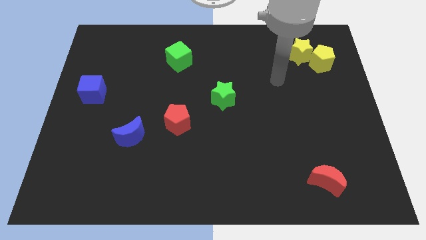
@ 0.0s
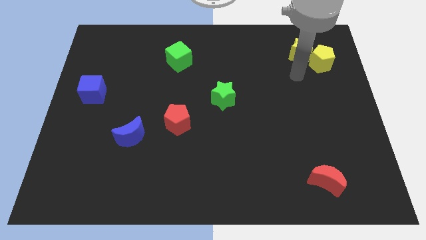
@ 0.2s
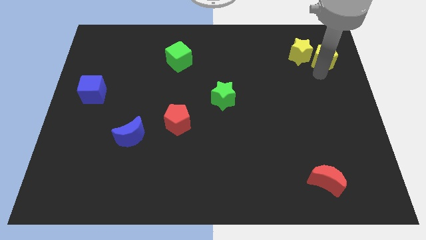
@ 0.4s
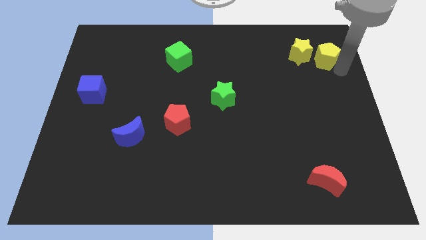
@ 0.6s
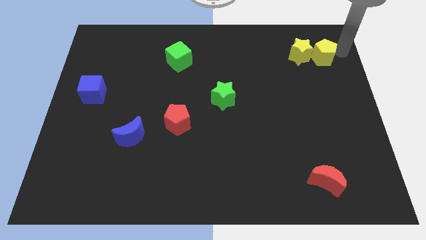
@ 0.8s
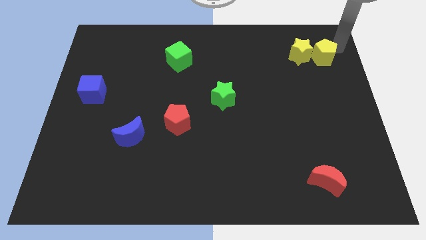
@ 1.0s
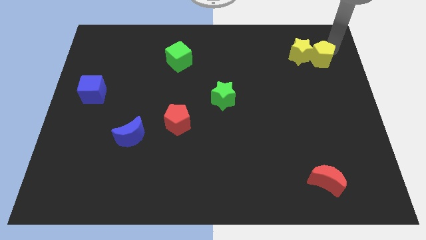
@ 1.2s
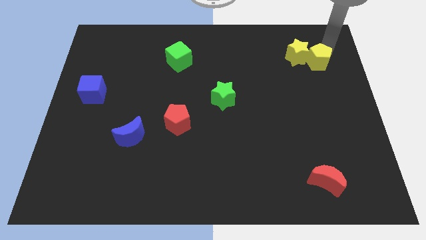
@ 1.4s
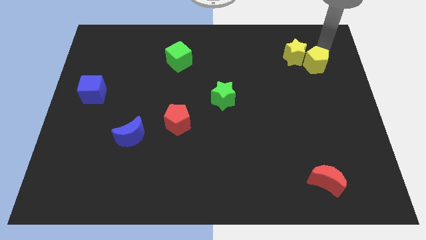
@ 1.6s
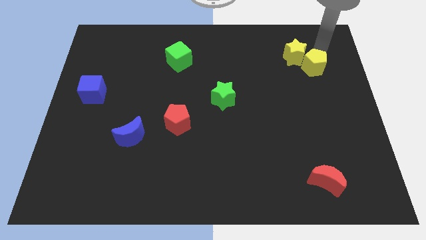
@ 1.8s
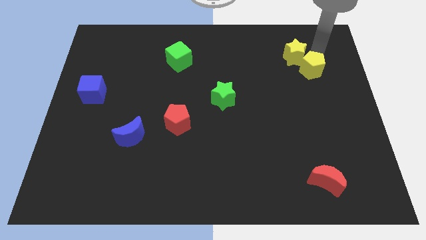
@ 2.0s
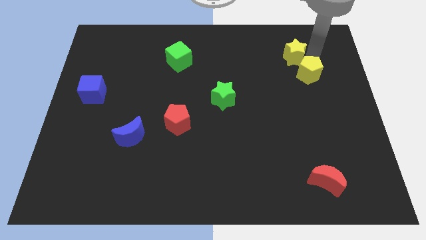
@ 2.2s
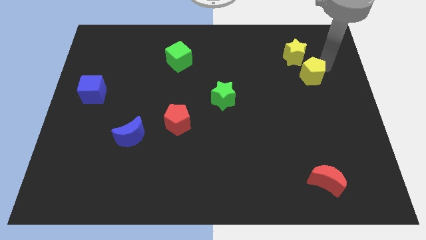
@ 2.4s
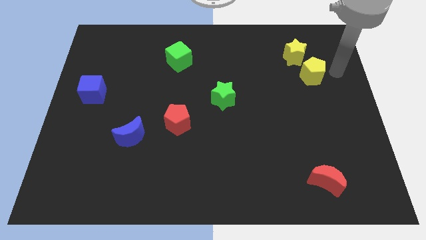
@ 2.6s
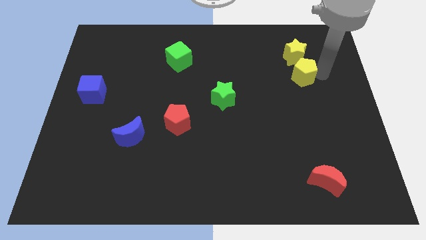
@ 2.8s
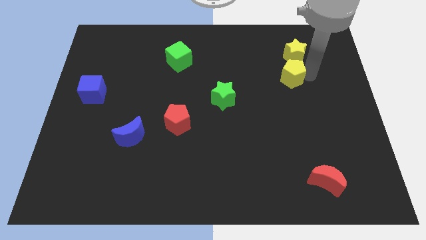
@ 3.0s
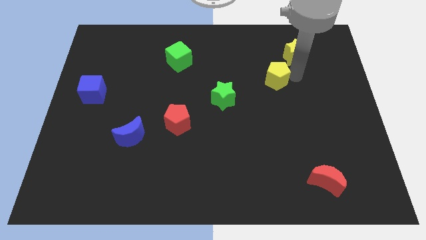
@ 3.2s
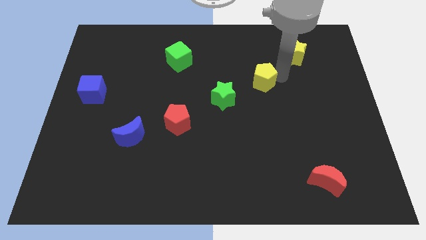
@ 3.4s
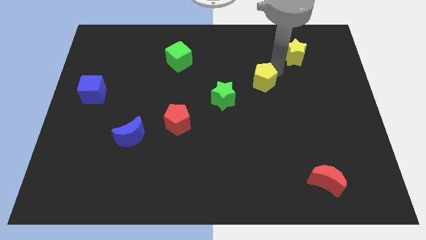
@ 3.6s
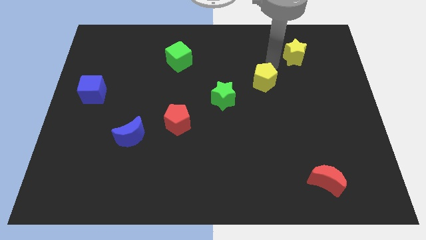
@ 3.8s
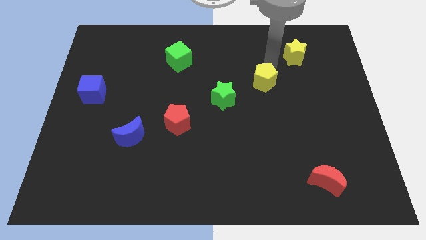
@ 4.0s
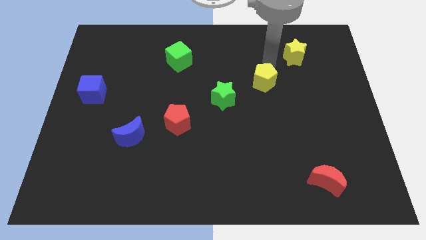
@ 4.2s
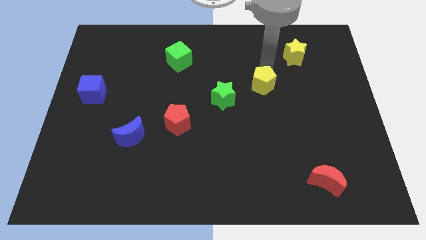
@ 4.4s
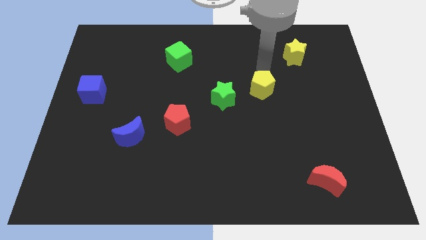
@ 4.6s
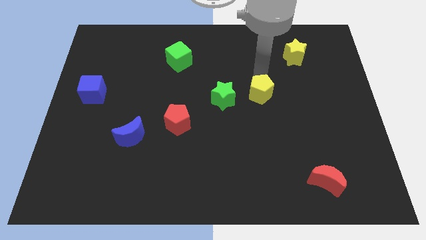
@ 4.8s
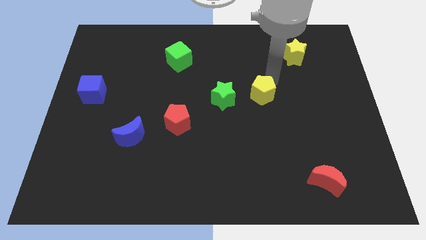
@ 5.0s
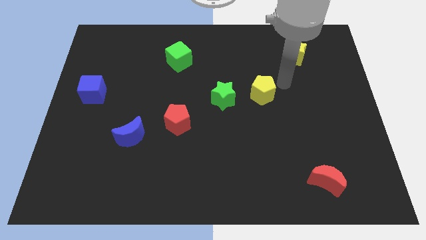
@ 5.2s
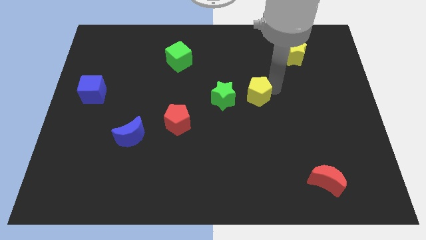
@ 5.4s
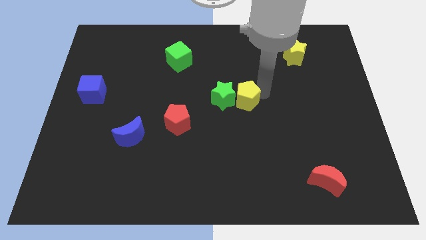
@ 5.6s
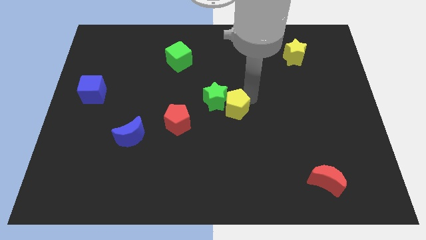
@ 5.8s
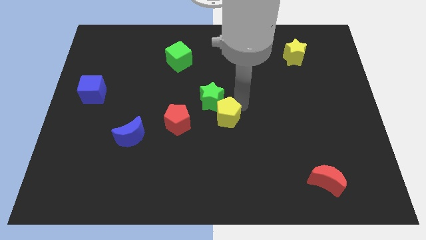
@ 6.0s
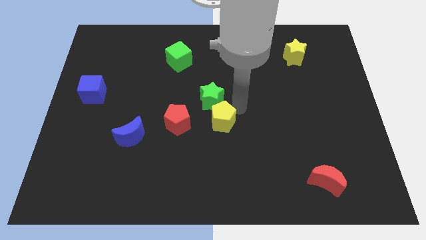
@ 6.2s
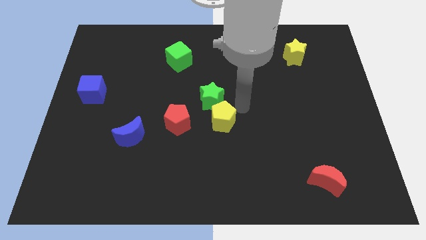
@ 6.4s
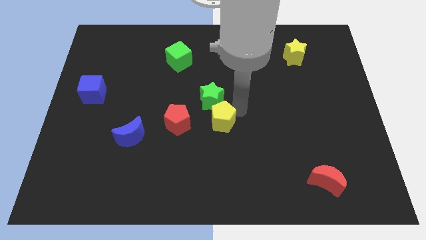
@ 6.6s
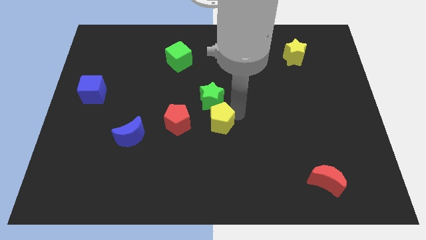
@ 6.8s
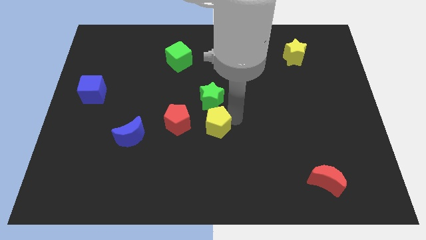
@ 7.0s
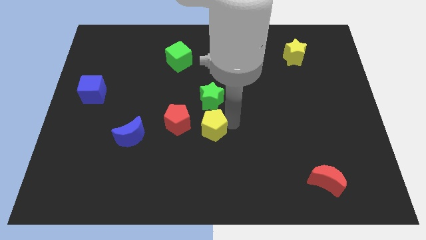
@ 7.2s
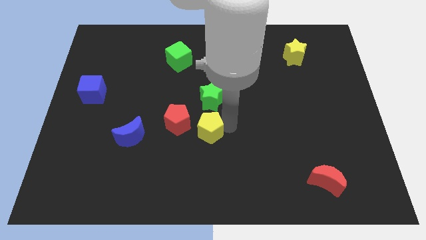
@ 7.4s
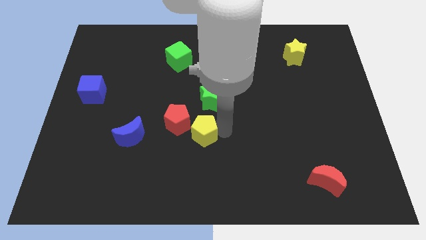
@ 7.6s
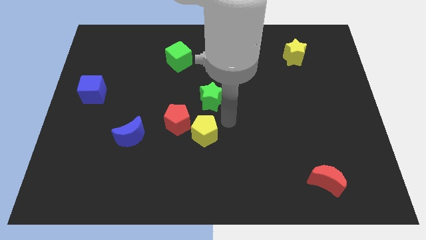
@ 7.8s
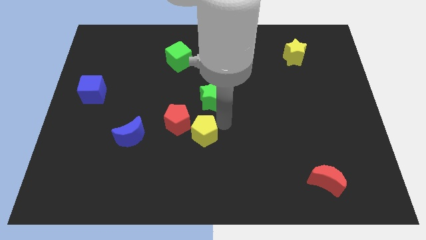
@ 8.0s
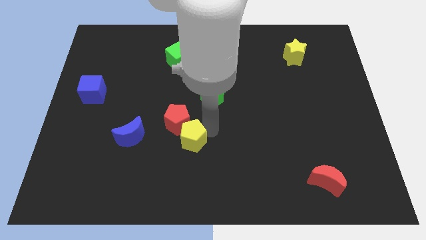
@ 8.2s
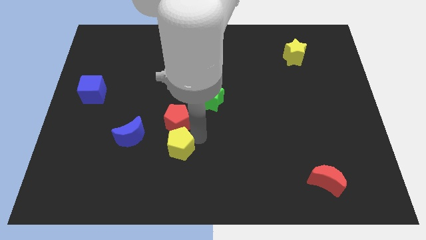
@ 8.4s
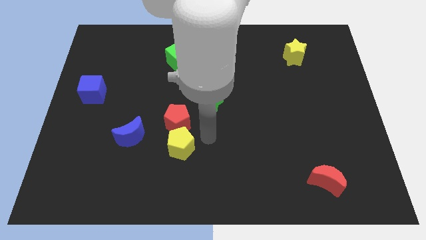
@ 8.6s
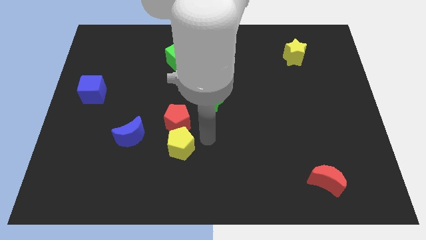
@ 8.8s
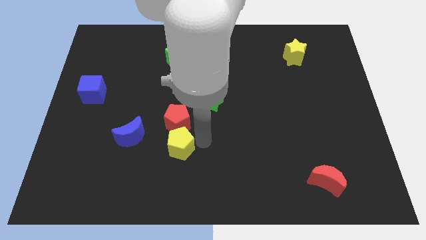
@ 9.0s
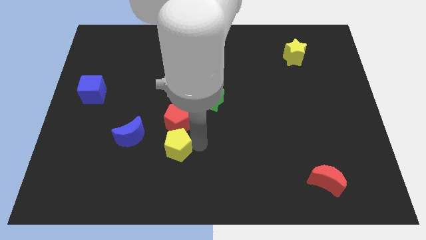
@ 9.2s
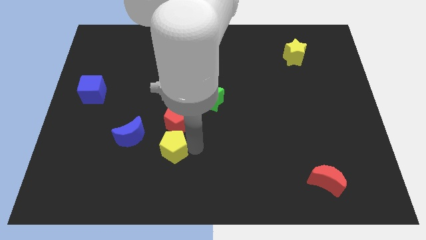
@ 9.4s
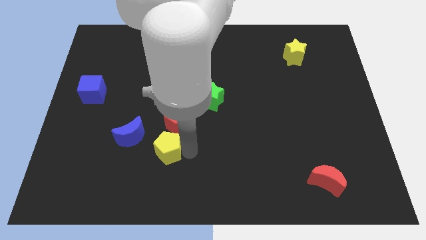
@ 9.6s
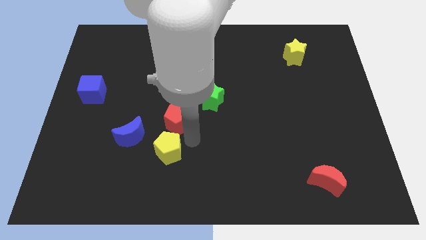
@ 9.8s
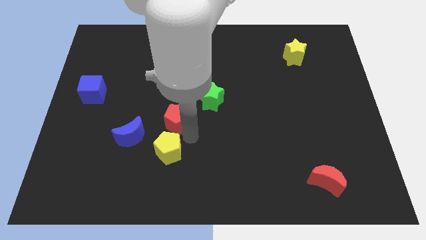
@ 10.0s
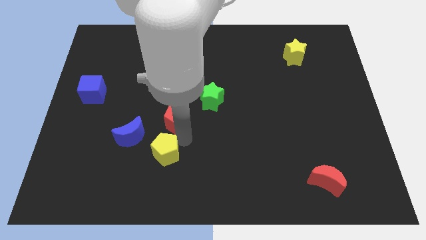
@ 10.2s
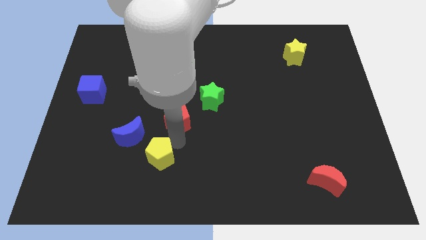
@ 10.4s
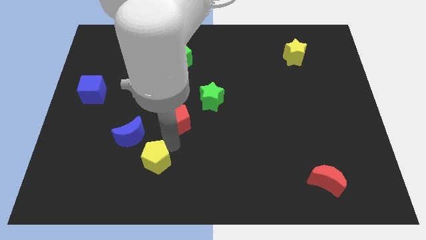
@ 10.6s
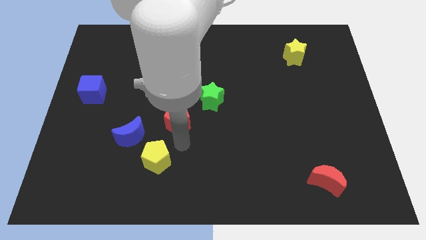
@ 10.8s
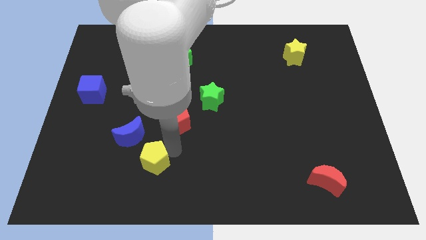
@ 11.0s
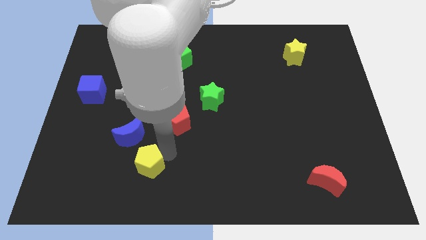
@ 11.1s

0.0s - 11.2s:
slide the yellow pentagon to the bottom of the blue moon

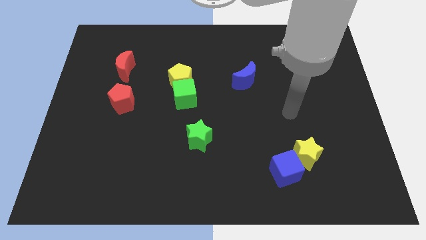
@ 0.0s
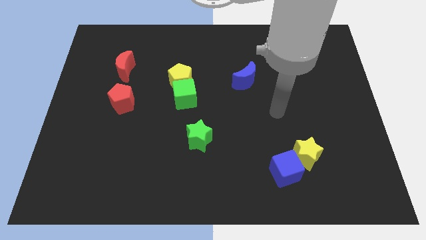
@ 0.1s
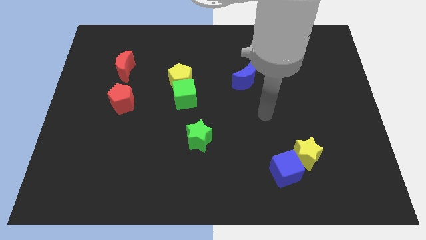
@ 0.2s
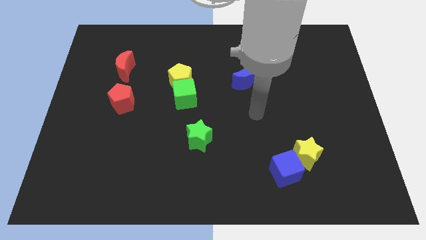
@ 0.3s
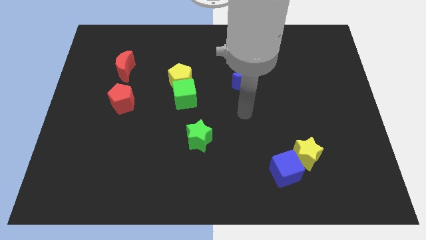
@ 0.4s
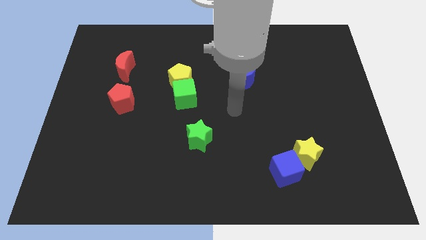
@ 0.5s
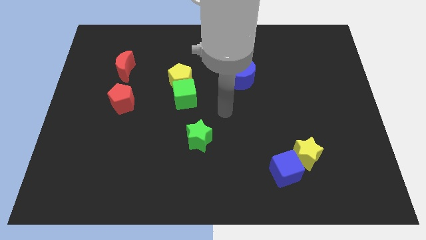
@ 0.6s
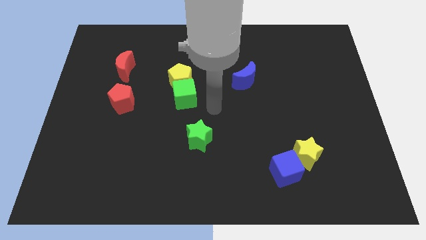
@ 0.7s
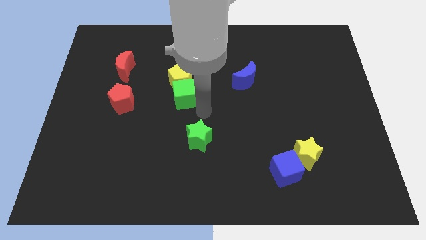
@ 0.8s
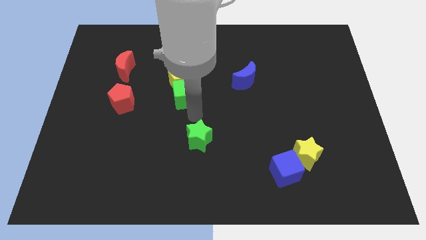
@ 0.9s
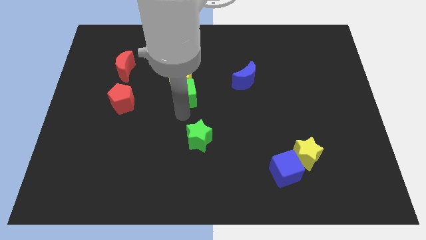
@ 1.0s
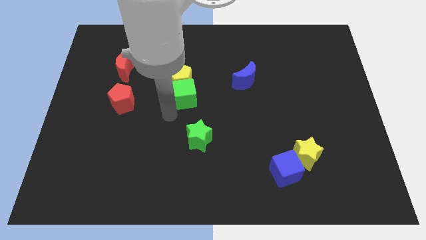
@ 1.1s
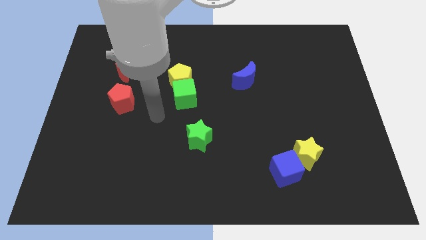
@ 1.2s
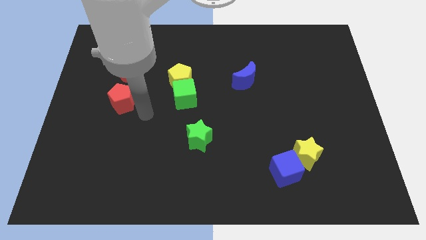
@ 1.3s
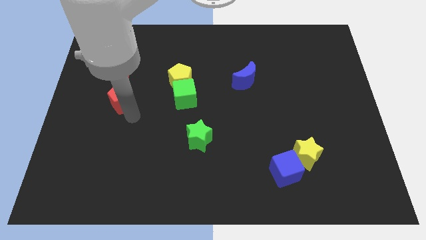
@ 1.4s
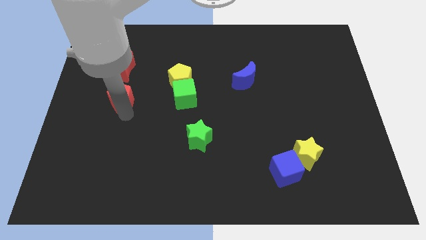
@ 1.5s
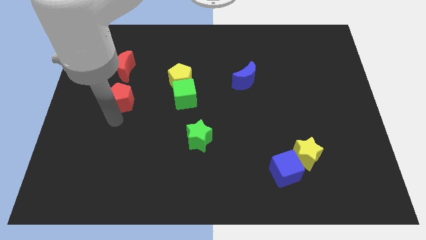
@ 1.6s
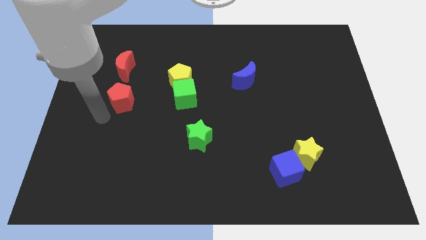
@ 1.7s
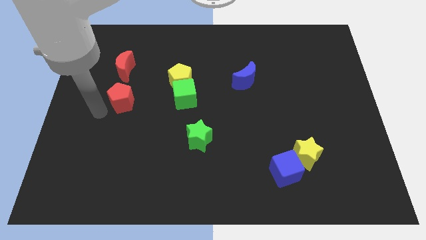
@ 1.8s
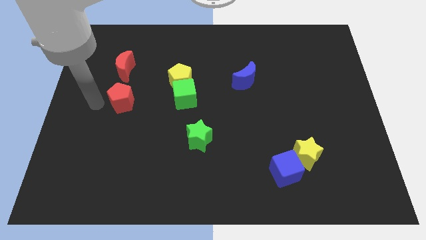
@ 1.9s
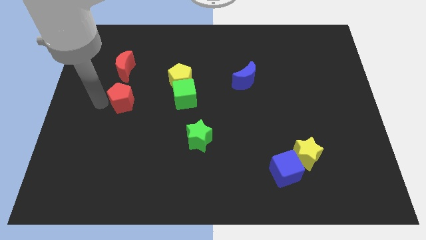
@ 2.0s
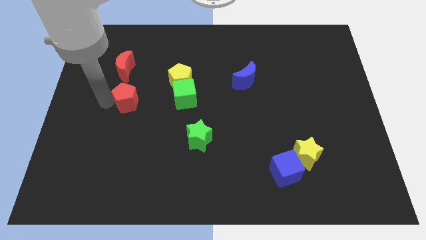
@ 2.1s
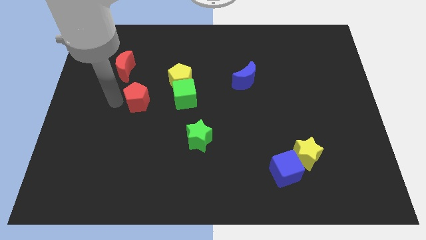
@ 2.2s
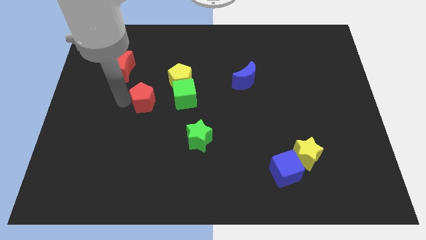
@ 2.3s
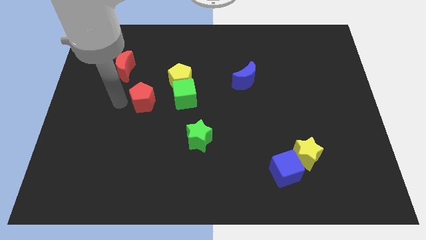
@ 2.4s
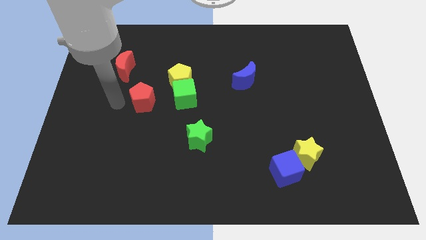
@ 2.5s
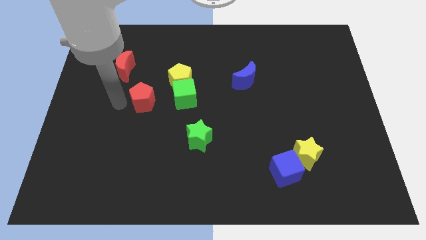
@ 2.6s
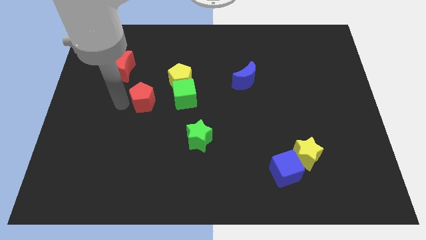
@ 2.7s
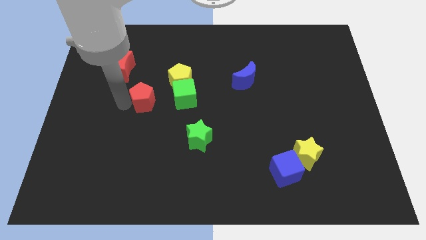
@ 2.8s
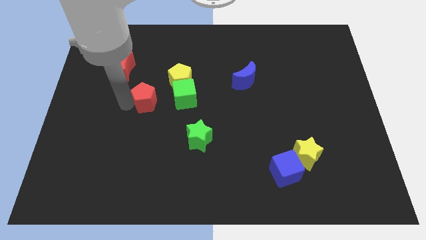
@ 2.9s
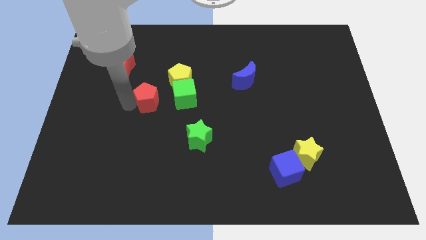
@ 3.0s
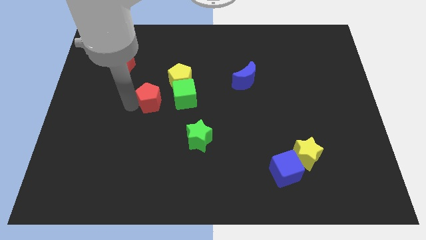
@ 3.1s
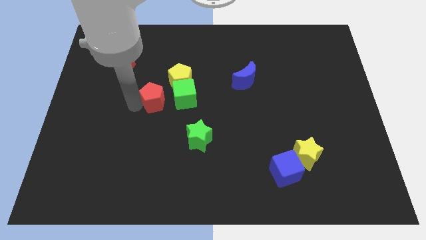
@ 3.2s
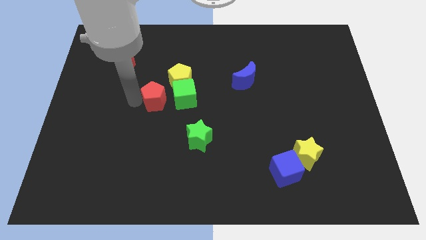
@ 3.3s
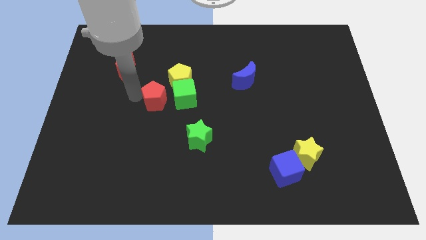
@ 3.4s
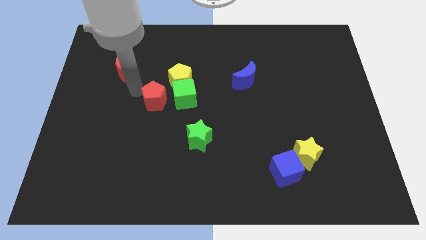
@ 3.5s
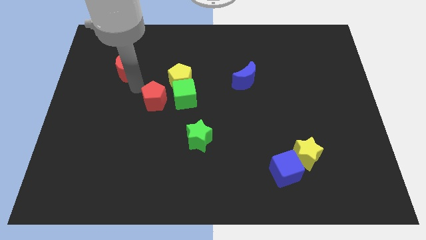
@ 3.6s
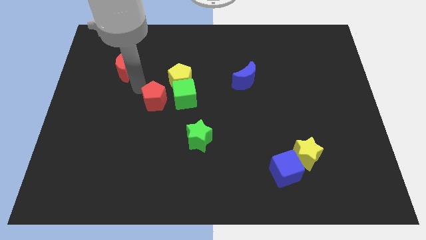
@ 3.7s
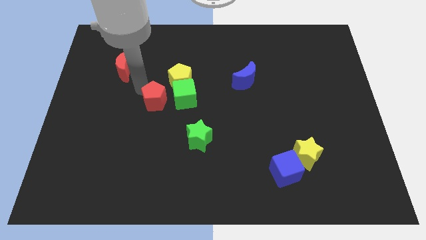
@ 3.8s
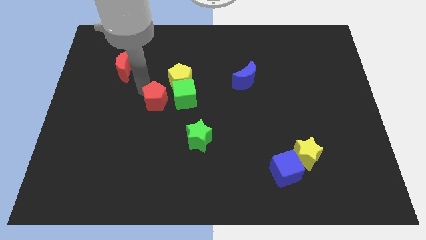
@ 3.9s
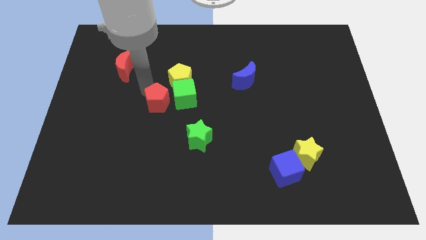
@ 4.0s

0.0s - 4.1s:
put the red pentagon to the bottom of the yellow pentagon
